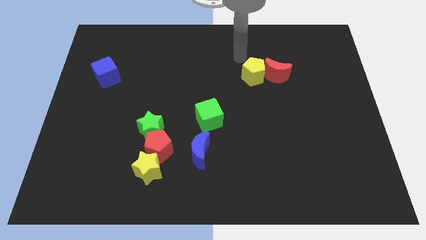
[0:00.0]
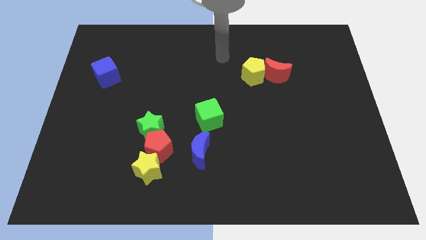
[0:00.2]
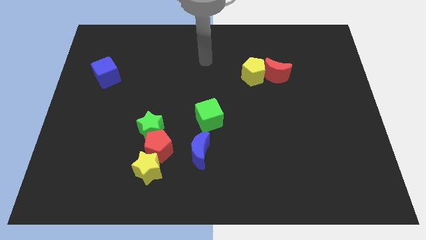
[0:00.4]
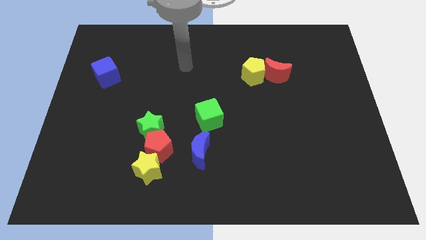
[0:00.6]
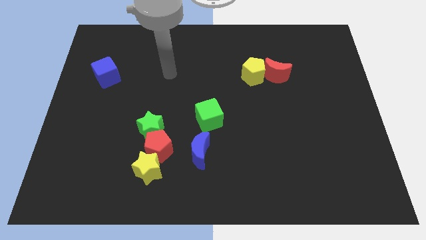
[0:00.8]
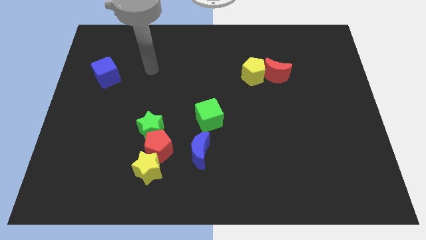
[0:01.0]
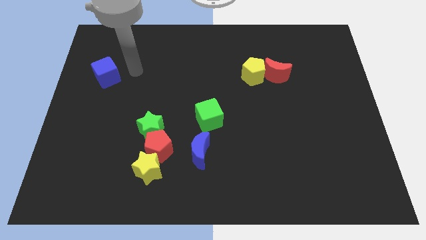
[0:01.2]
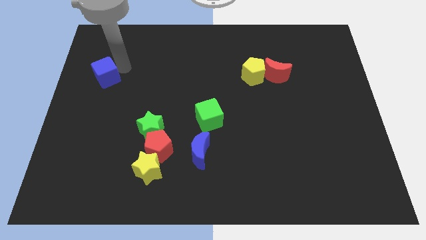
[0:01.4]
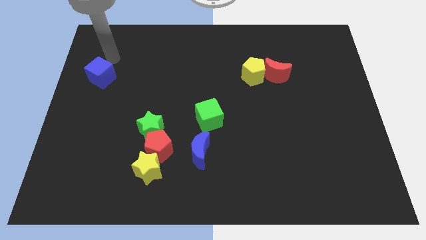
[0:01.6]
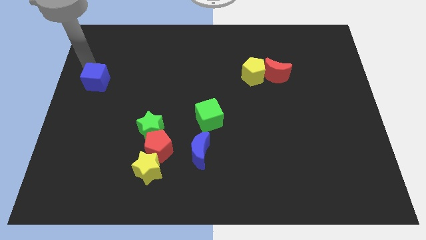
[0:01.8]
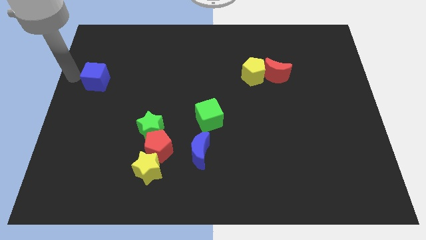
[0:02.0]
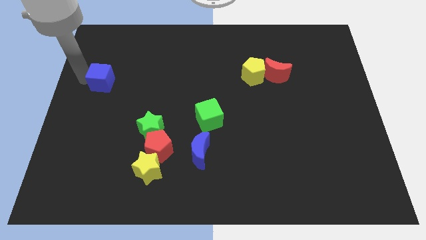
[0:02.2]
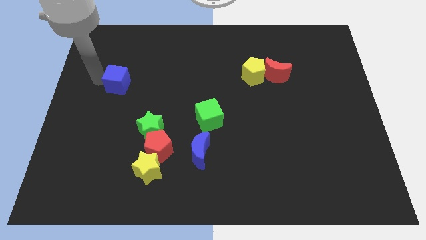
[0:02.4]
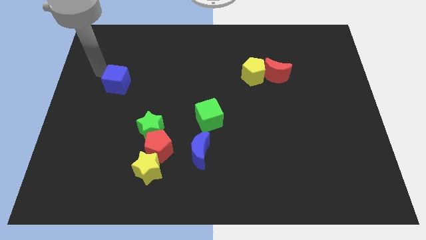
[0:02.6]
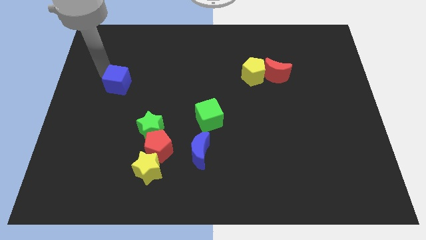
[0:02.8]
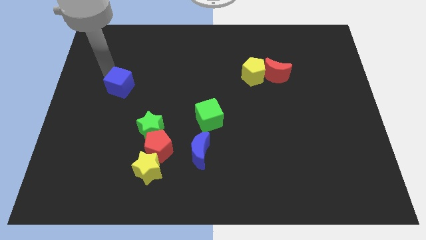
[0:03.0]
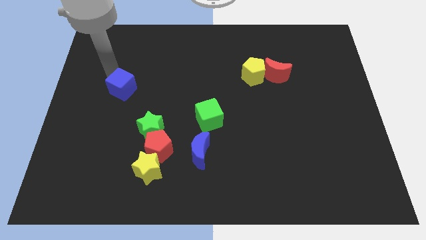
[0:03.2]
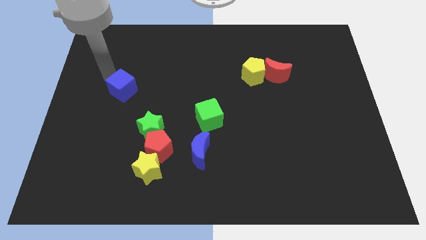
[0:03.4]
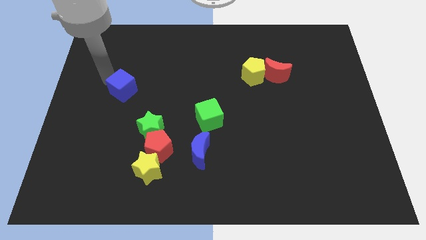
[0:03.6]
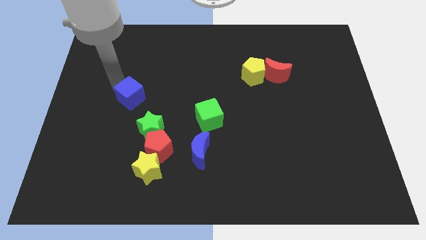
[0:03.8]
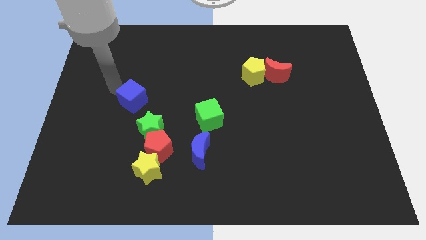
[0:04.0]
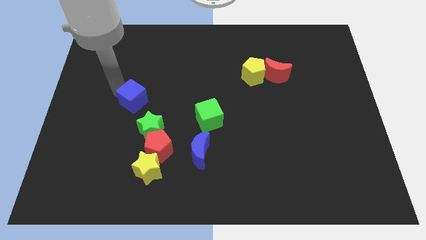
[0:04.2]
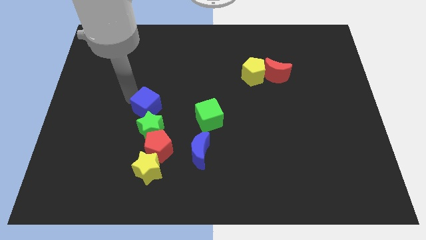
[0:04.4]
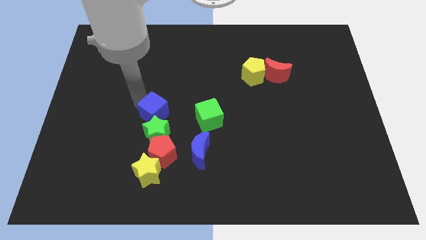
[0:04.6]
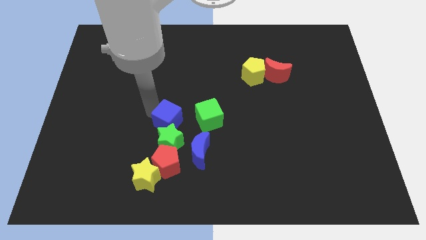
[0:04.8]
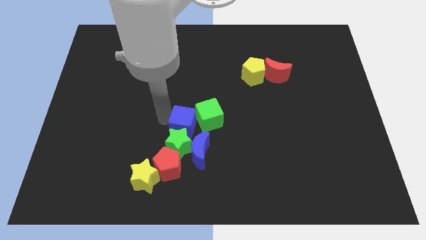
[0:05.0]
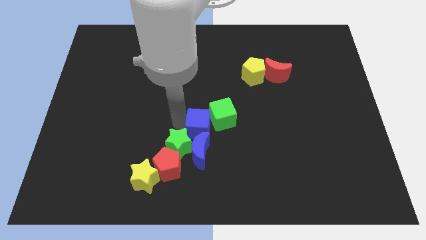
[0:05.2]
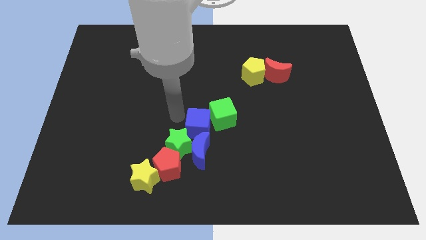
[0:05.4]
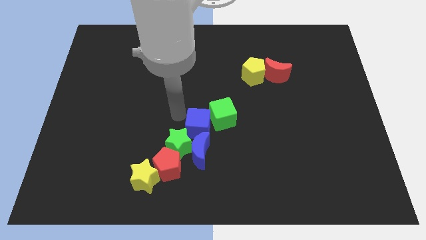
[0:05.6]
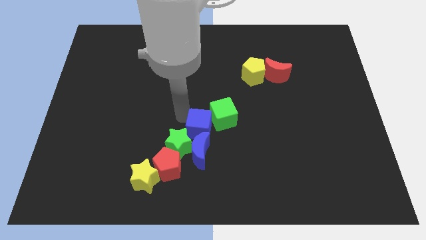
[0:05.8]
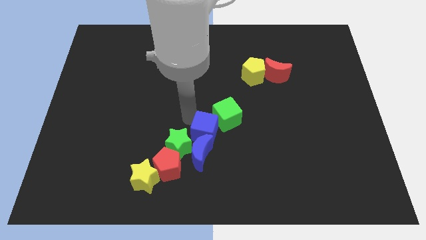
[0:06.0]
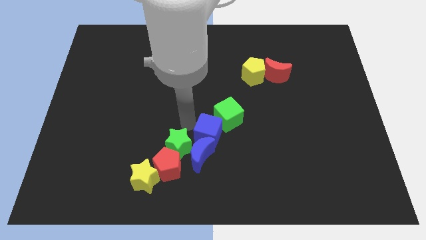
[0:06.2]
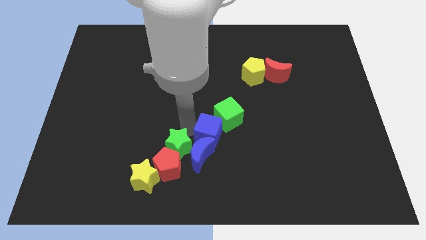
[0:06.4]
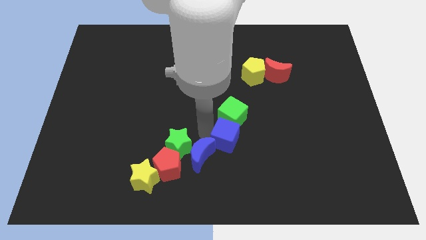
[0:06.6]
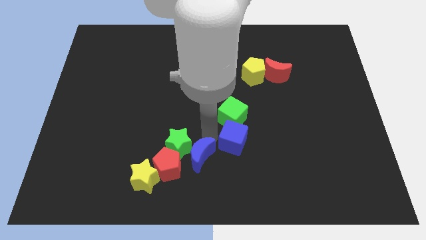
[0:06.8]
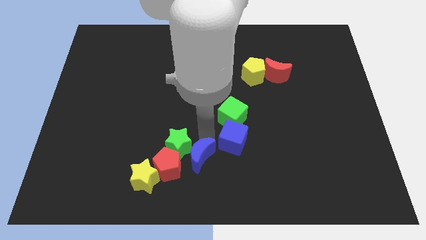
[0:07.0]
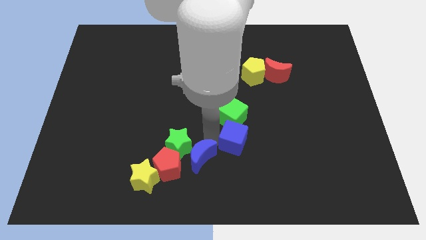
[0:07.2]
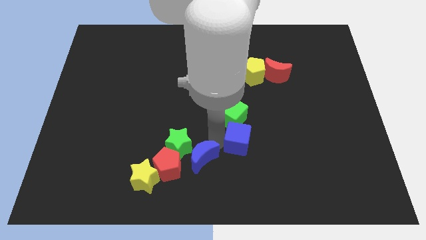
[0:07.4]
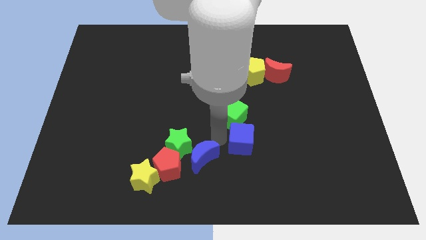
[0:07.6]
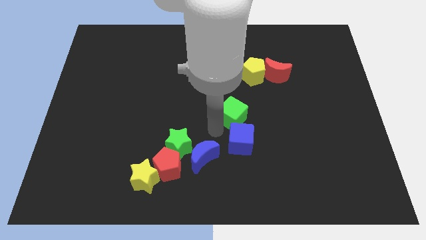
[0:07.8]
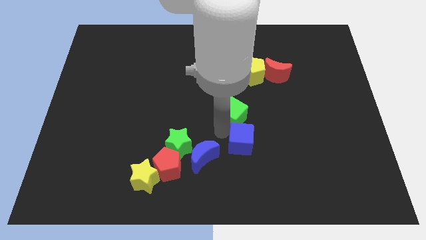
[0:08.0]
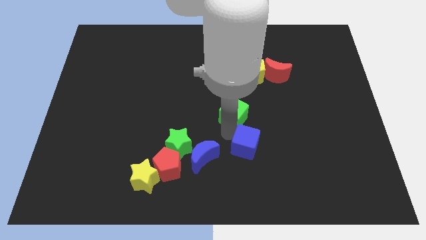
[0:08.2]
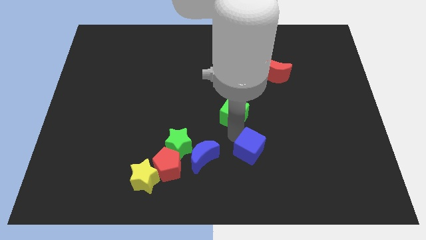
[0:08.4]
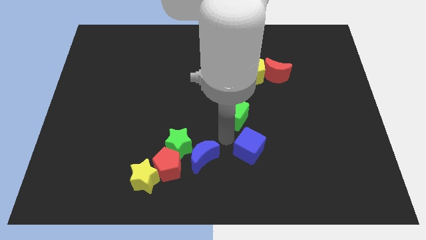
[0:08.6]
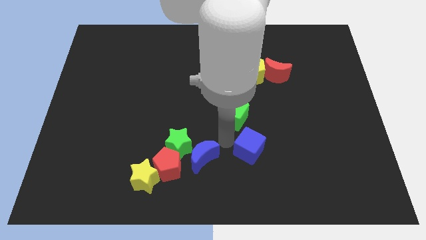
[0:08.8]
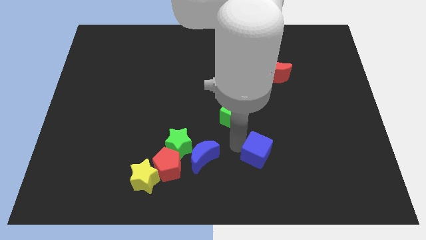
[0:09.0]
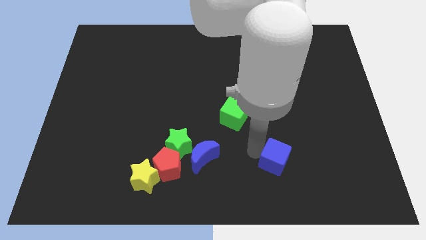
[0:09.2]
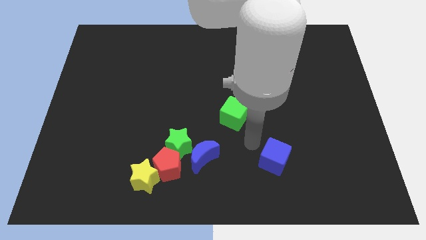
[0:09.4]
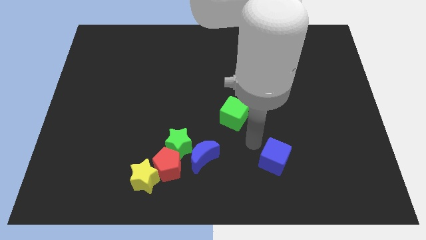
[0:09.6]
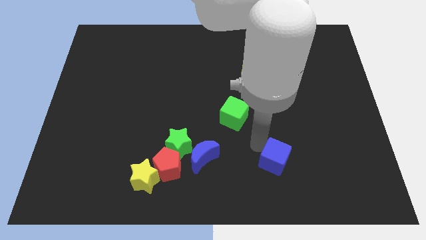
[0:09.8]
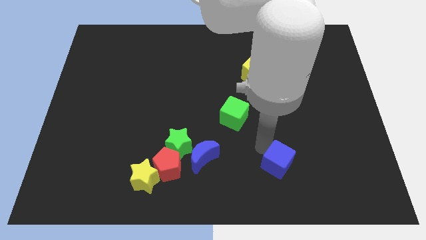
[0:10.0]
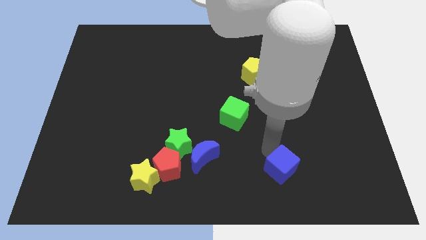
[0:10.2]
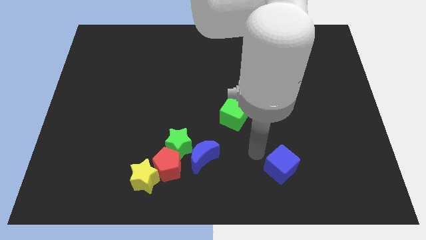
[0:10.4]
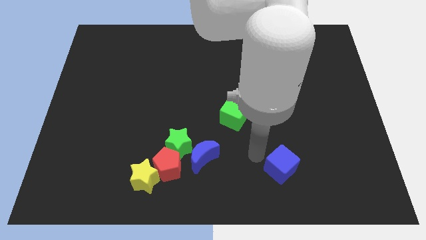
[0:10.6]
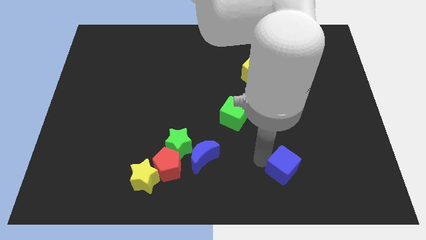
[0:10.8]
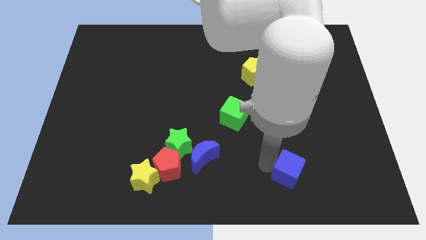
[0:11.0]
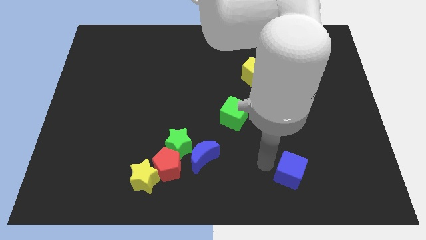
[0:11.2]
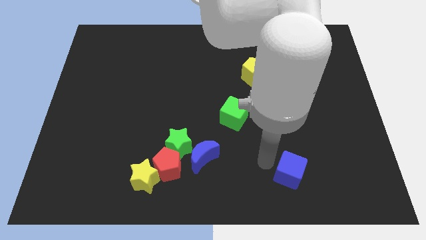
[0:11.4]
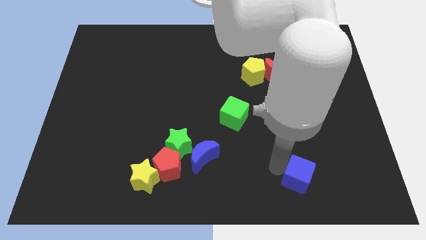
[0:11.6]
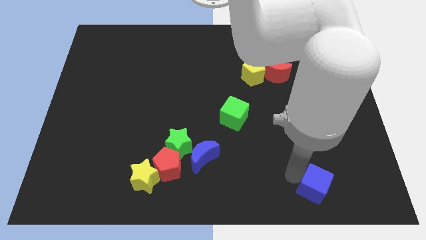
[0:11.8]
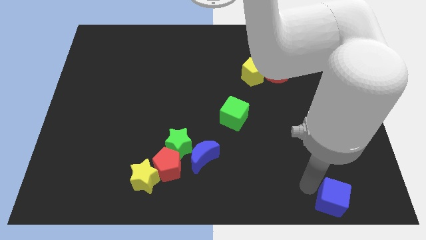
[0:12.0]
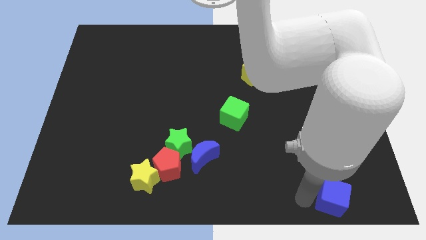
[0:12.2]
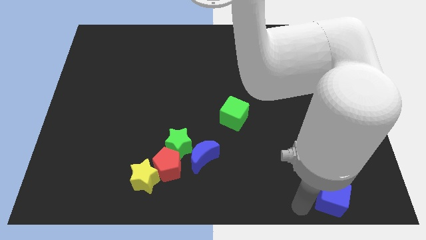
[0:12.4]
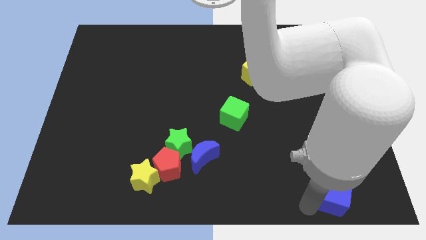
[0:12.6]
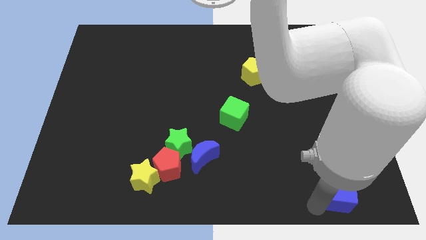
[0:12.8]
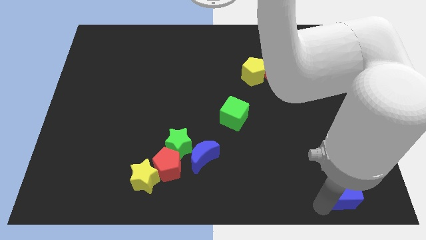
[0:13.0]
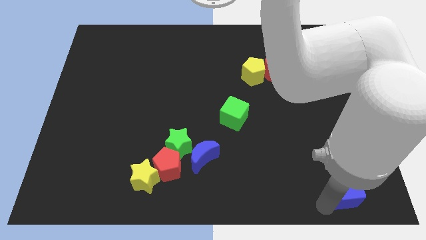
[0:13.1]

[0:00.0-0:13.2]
move the blue cube to the lower right corner
